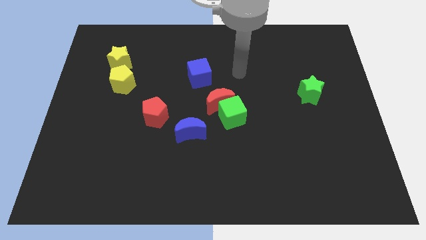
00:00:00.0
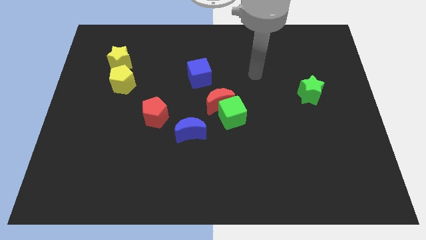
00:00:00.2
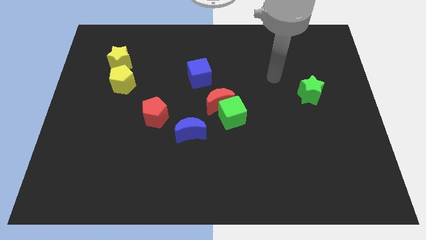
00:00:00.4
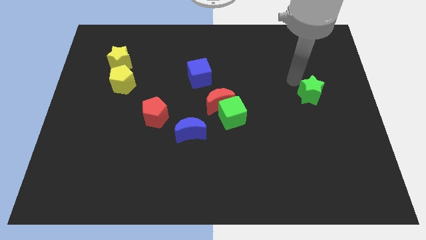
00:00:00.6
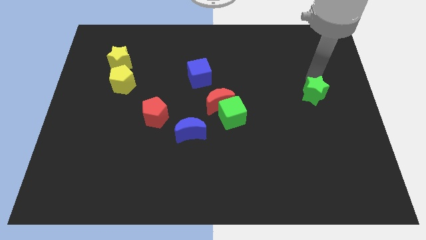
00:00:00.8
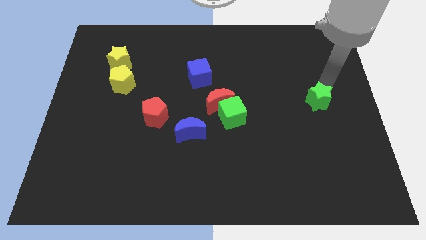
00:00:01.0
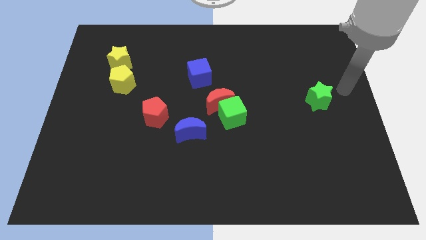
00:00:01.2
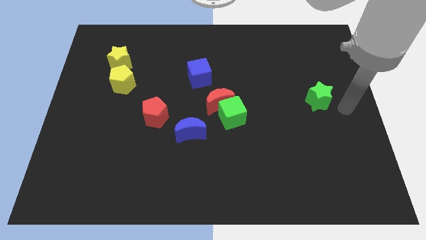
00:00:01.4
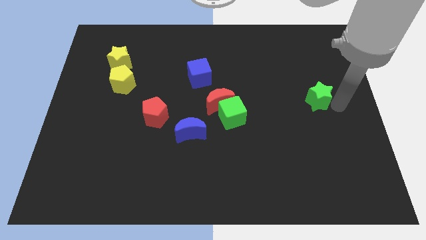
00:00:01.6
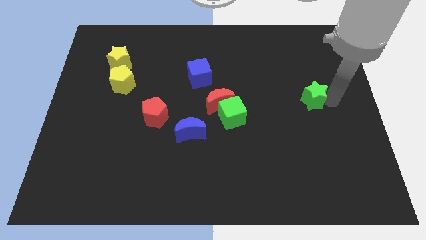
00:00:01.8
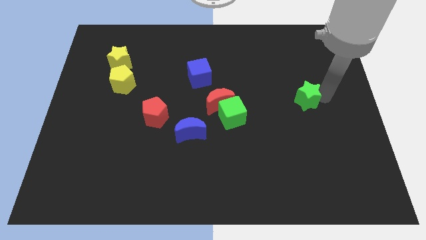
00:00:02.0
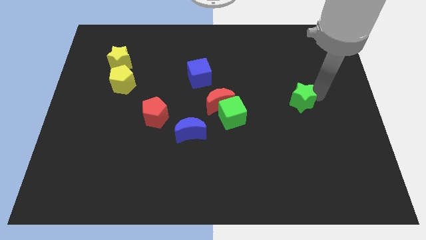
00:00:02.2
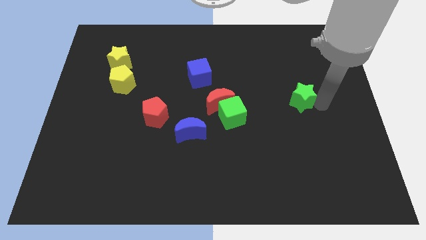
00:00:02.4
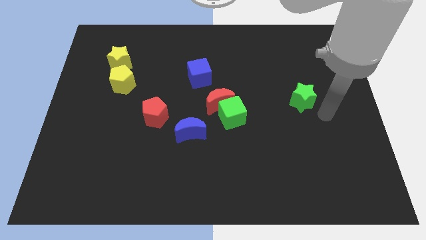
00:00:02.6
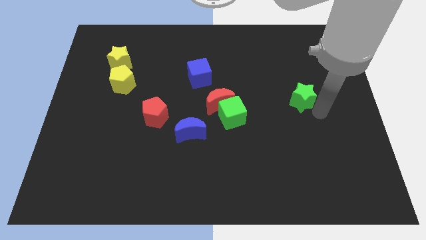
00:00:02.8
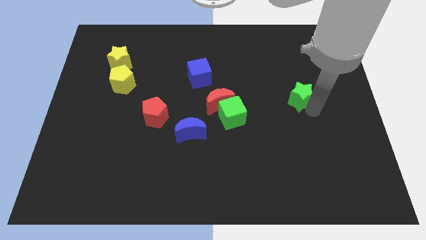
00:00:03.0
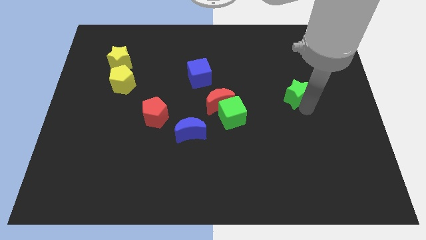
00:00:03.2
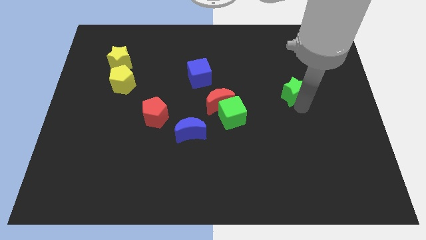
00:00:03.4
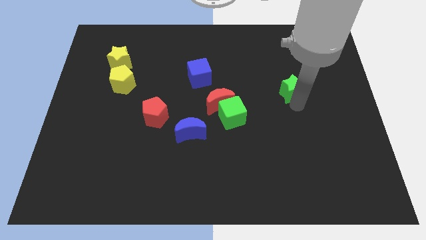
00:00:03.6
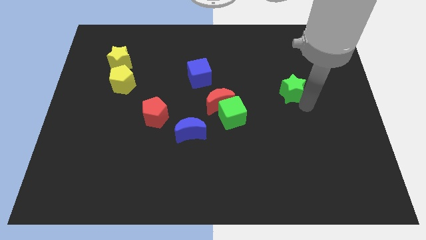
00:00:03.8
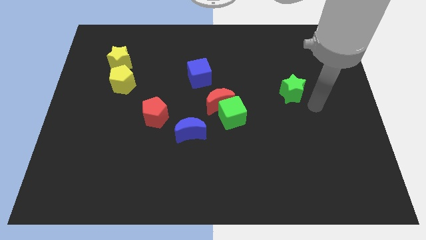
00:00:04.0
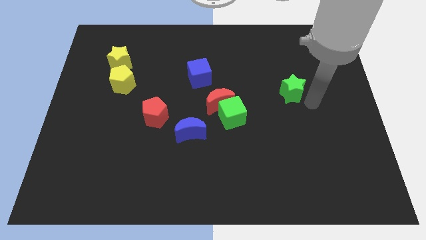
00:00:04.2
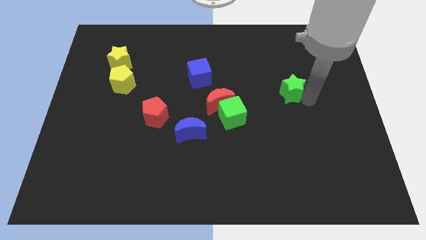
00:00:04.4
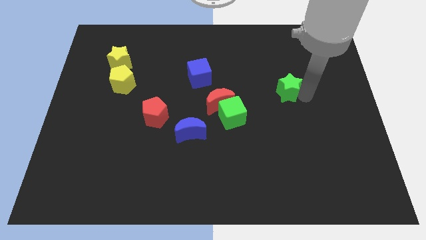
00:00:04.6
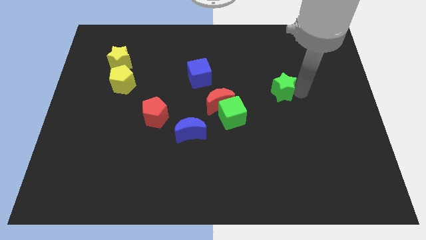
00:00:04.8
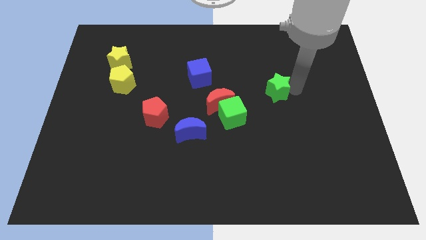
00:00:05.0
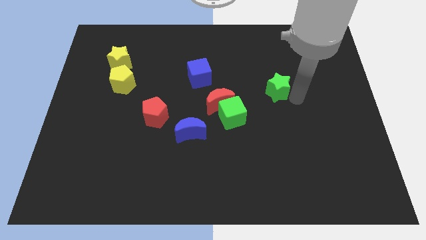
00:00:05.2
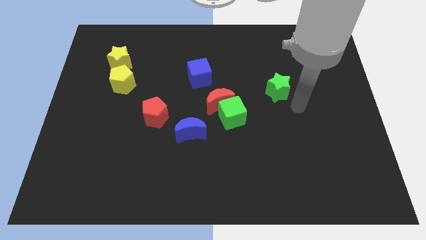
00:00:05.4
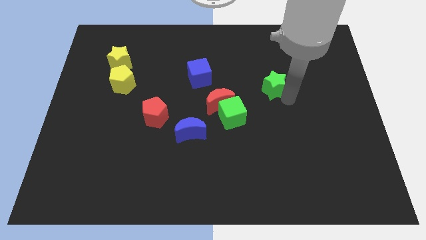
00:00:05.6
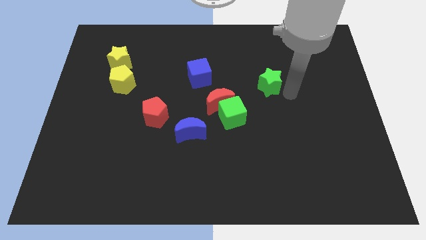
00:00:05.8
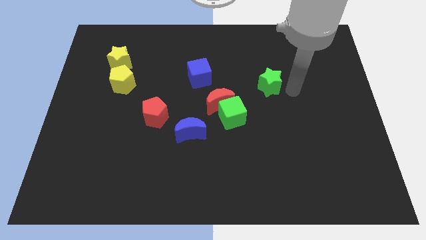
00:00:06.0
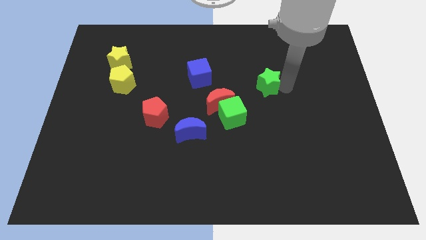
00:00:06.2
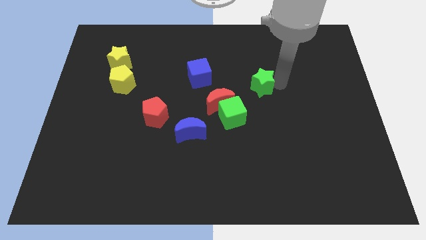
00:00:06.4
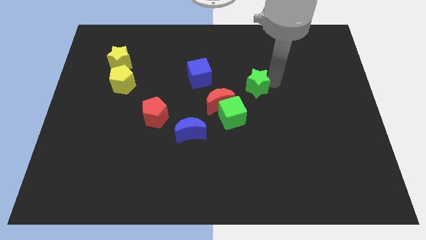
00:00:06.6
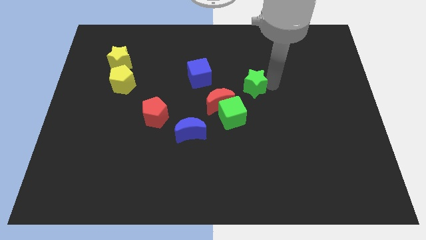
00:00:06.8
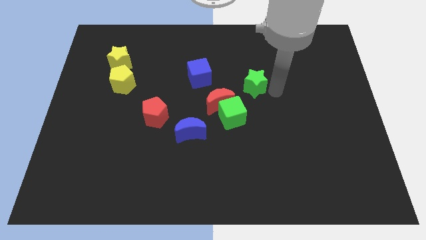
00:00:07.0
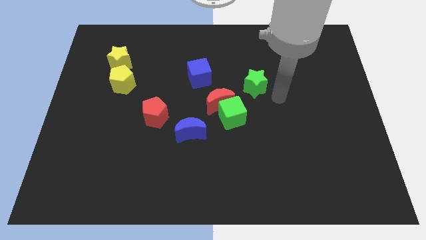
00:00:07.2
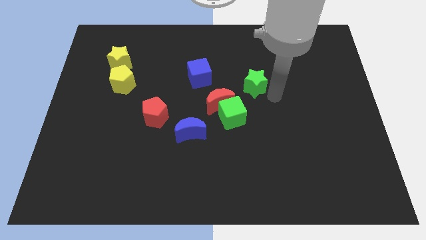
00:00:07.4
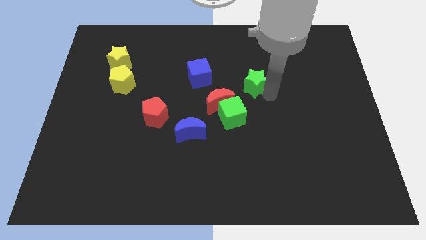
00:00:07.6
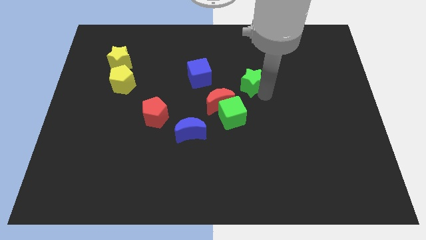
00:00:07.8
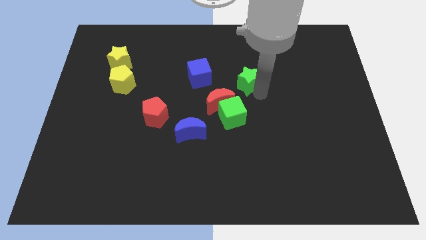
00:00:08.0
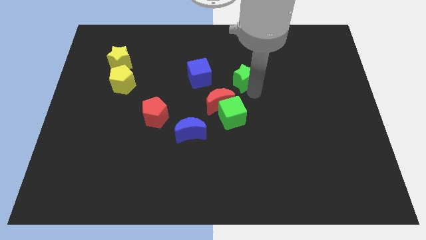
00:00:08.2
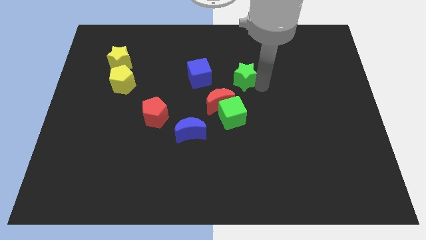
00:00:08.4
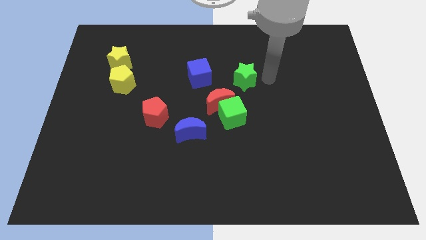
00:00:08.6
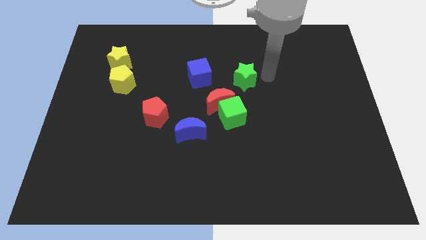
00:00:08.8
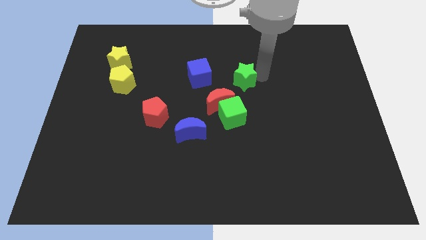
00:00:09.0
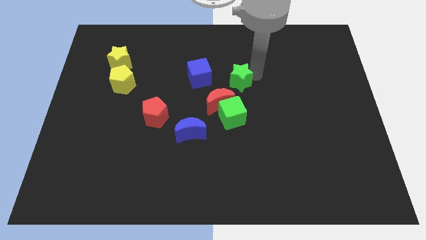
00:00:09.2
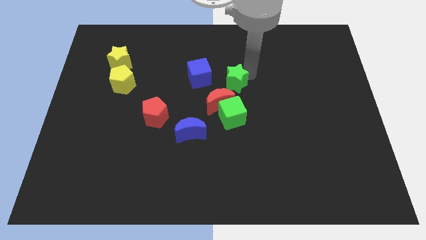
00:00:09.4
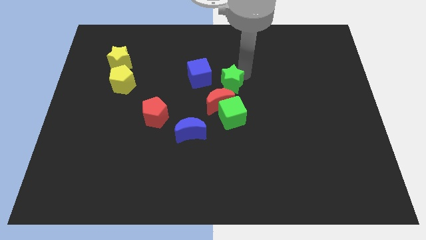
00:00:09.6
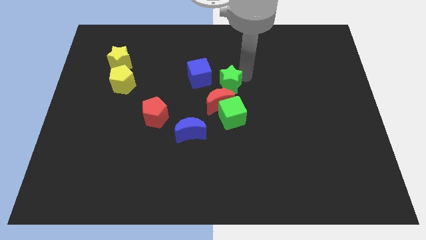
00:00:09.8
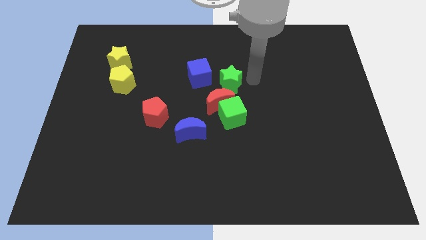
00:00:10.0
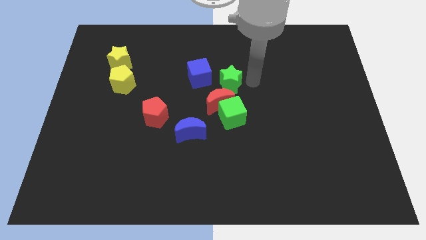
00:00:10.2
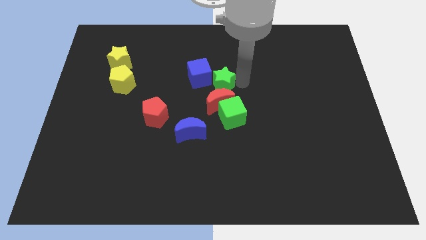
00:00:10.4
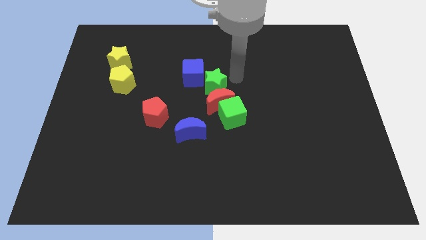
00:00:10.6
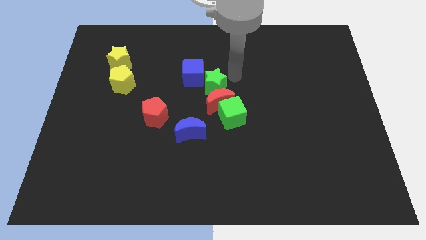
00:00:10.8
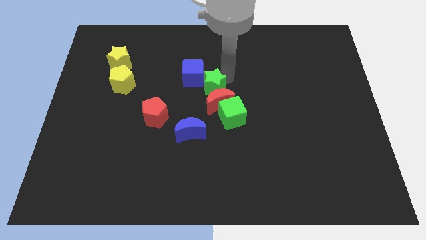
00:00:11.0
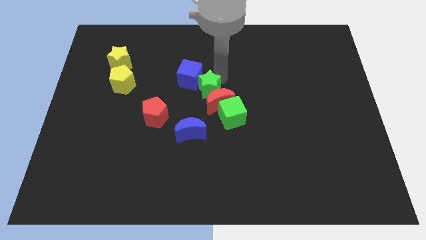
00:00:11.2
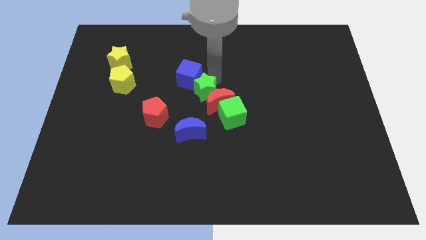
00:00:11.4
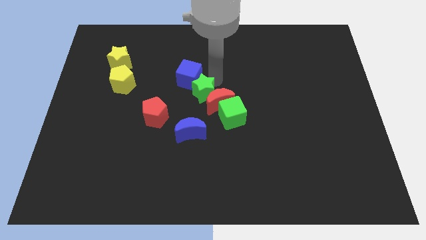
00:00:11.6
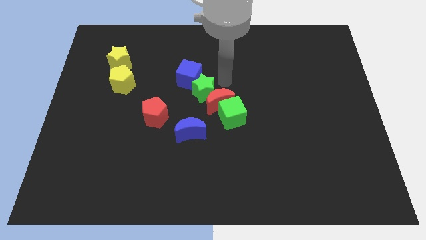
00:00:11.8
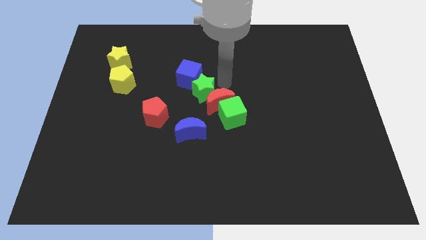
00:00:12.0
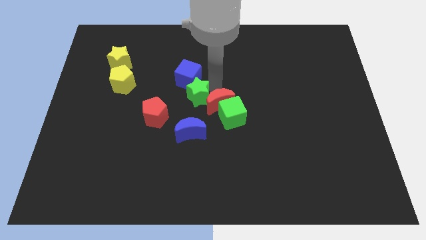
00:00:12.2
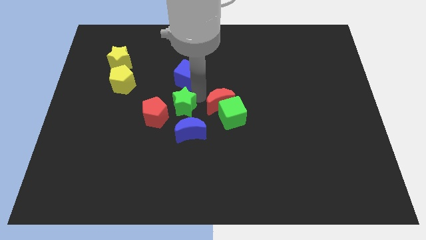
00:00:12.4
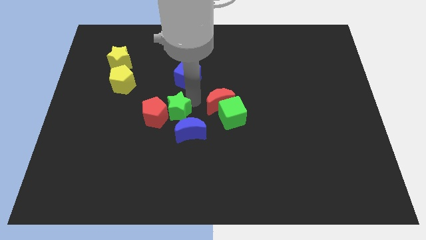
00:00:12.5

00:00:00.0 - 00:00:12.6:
move the green star close to the red pentagon
